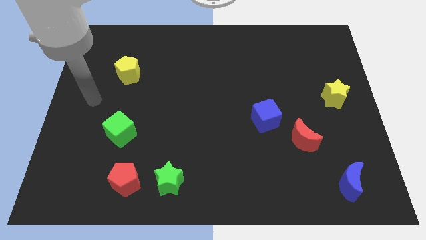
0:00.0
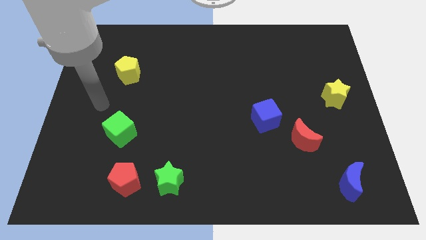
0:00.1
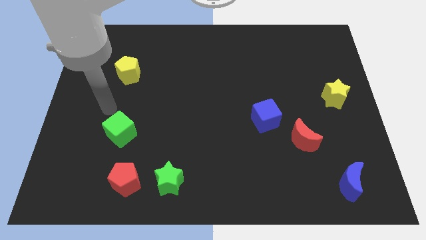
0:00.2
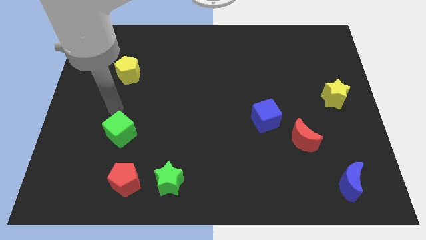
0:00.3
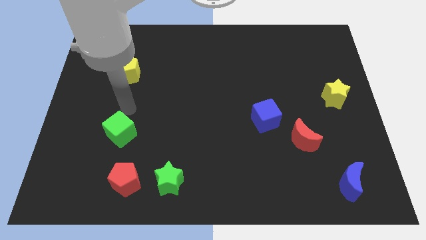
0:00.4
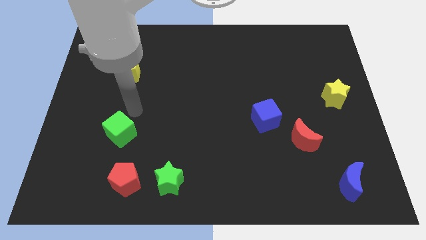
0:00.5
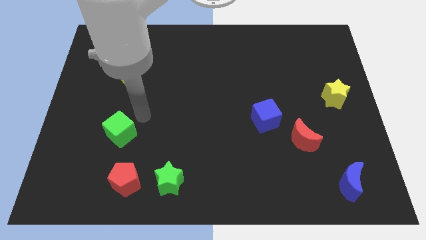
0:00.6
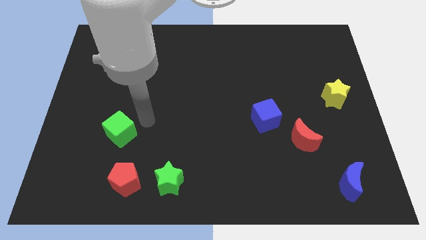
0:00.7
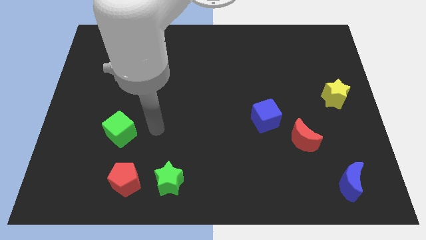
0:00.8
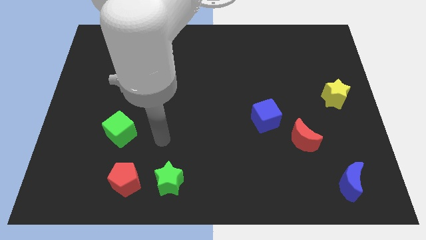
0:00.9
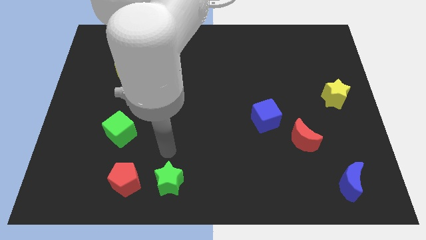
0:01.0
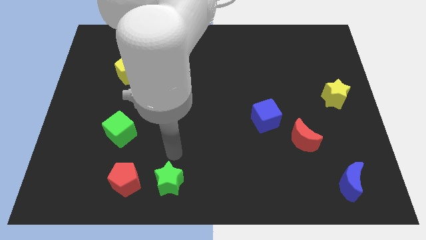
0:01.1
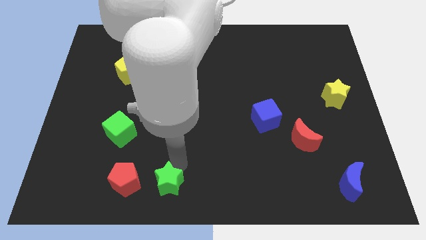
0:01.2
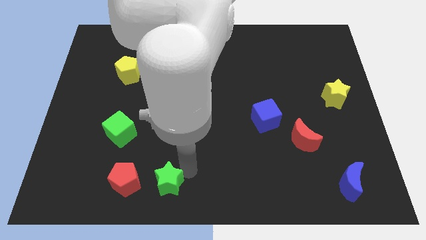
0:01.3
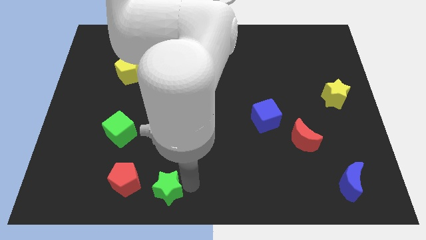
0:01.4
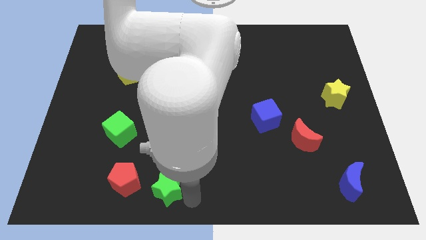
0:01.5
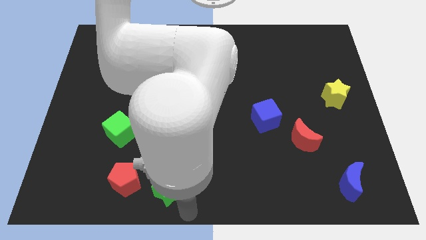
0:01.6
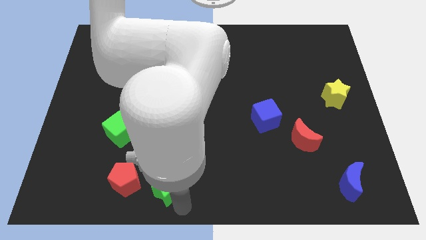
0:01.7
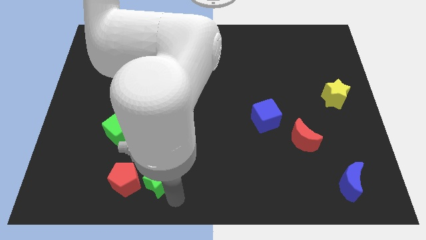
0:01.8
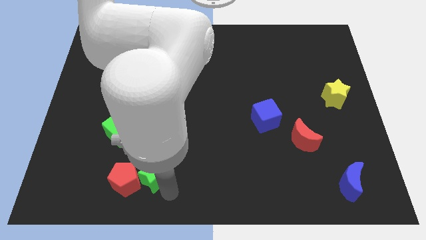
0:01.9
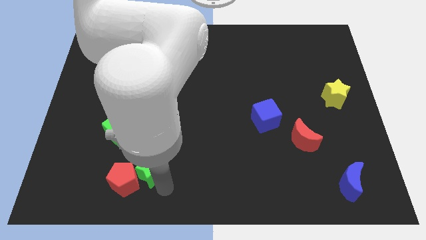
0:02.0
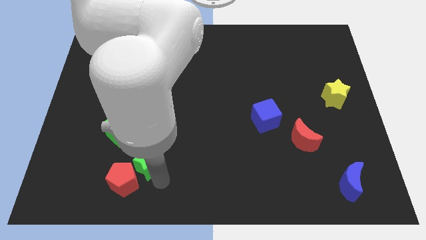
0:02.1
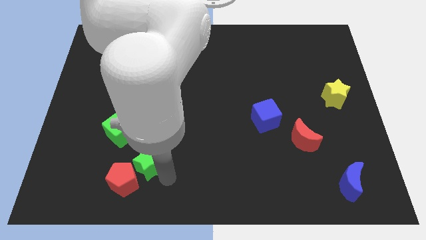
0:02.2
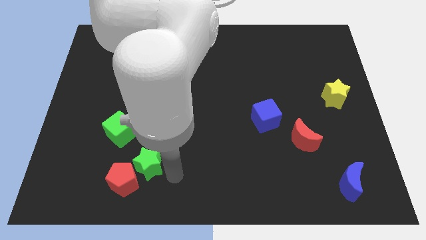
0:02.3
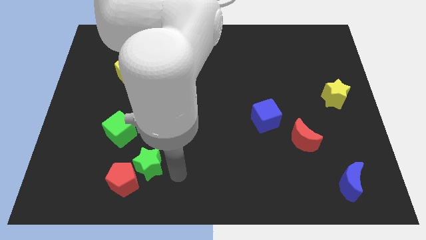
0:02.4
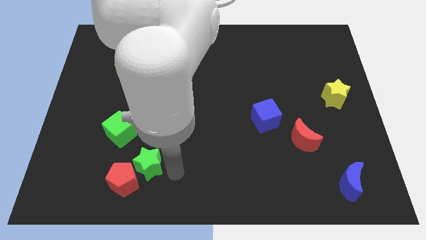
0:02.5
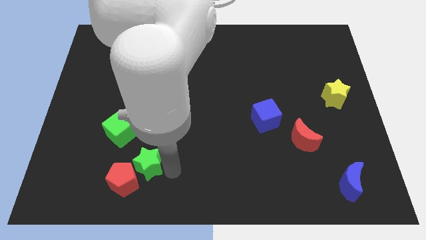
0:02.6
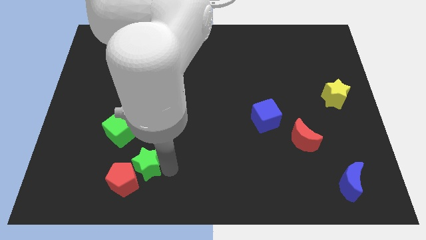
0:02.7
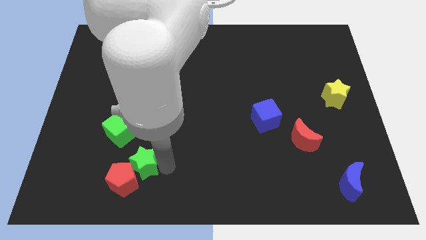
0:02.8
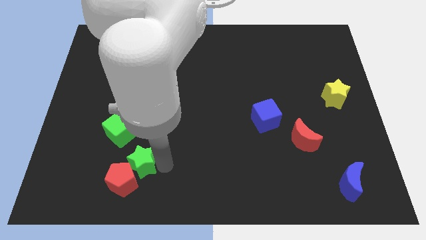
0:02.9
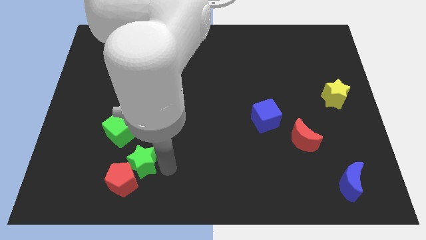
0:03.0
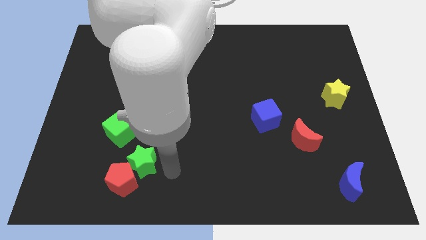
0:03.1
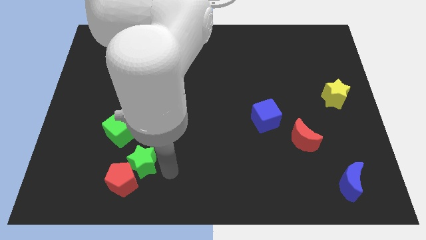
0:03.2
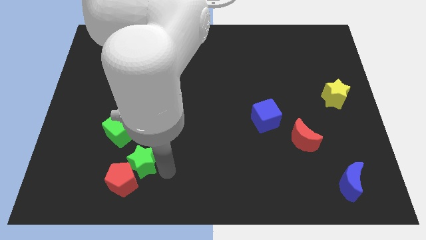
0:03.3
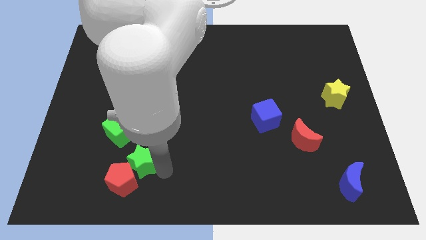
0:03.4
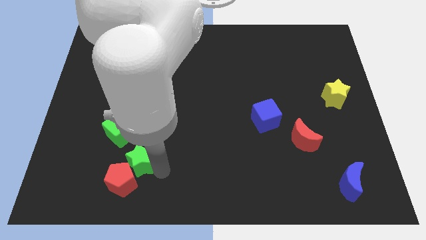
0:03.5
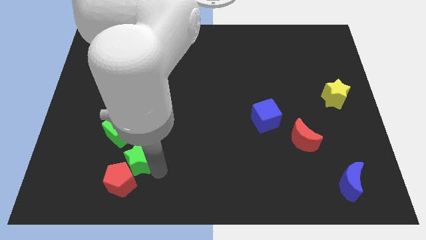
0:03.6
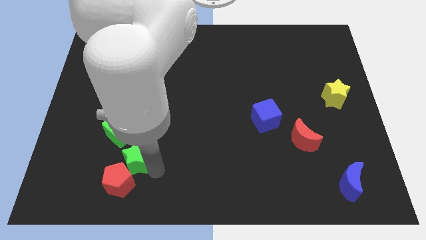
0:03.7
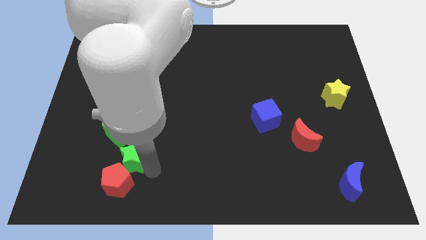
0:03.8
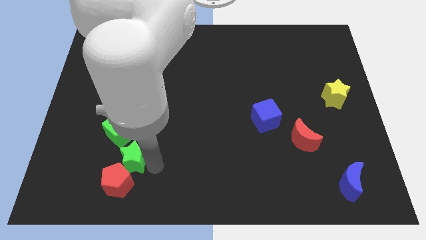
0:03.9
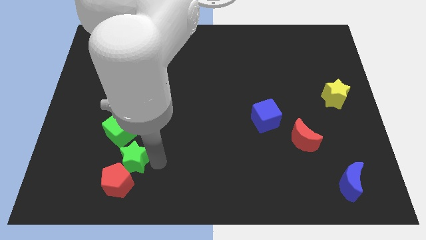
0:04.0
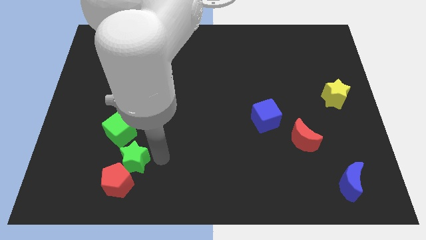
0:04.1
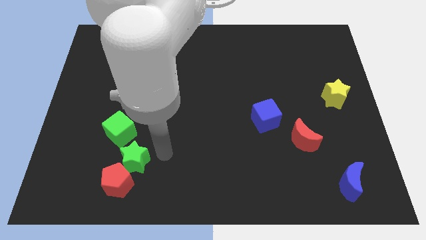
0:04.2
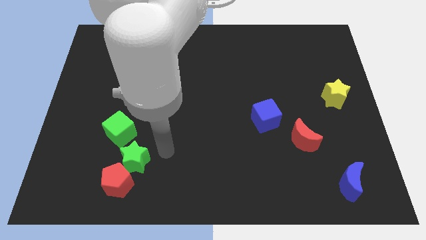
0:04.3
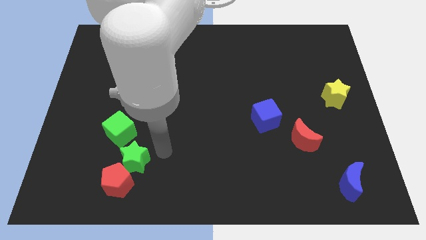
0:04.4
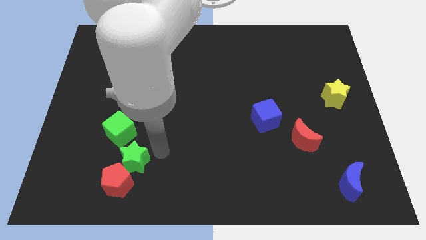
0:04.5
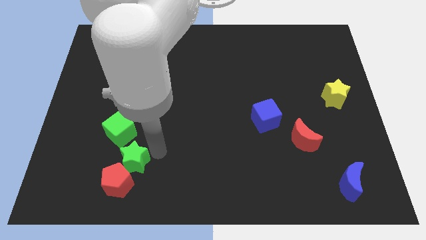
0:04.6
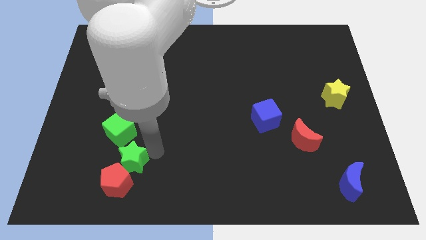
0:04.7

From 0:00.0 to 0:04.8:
push the green star left somewhat

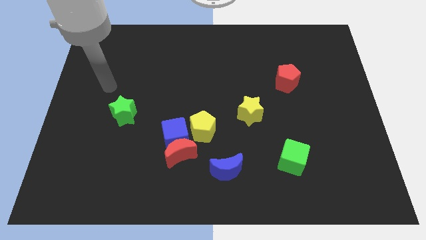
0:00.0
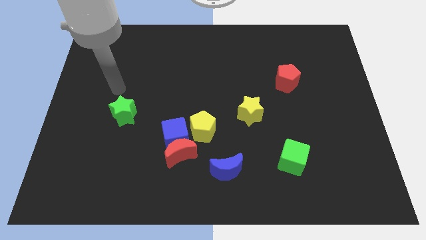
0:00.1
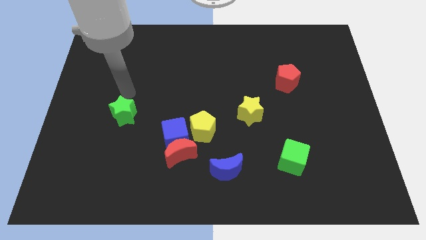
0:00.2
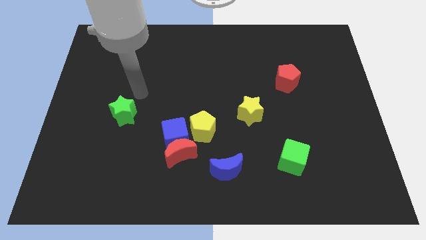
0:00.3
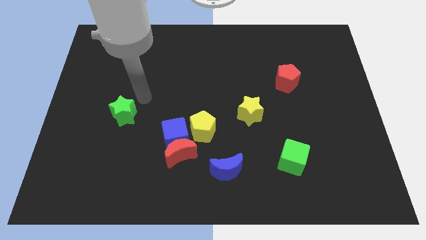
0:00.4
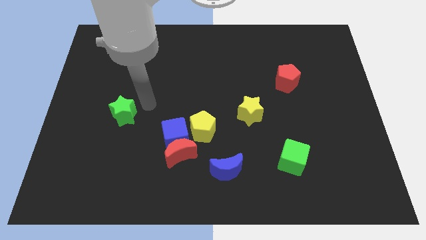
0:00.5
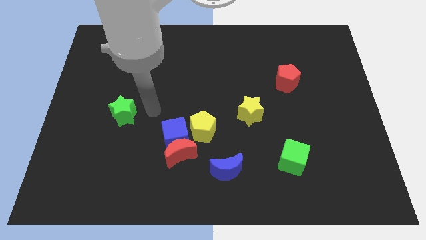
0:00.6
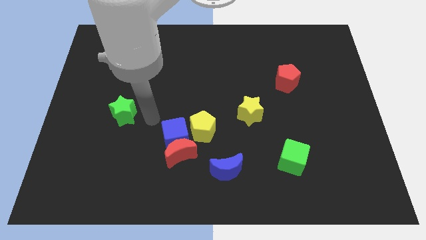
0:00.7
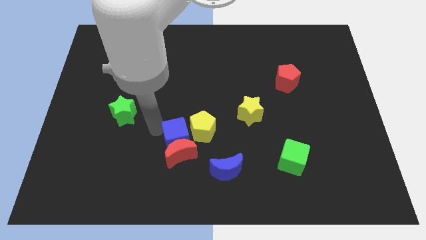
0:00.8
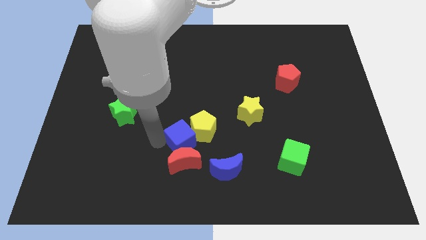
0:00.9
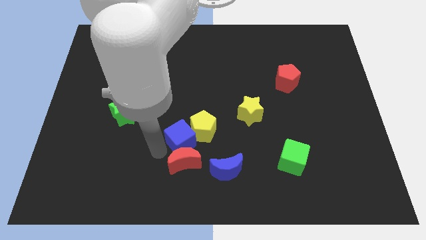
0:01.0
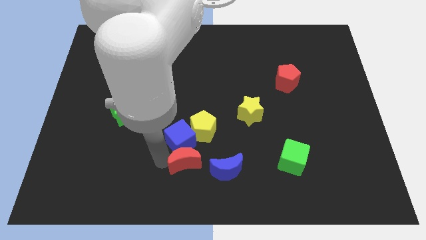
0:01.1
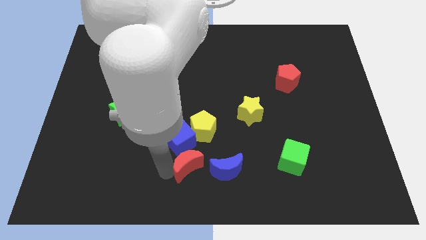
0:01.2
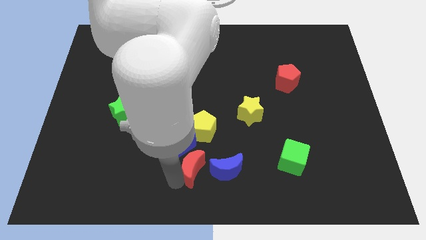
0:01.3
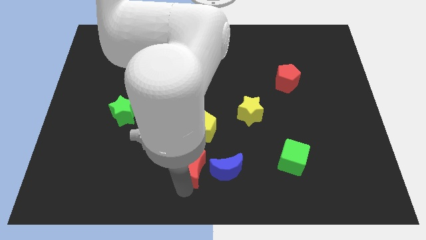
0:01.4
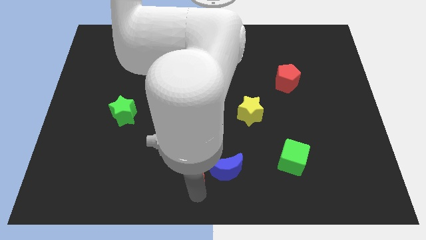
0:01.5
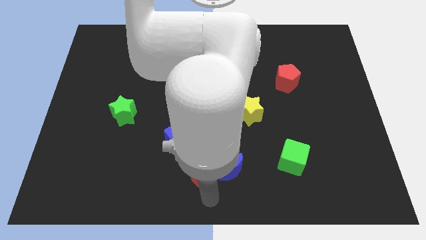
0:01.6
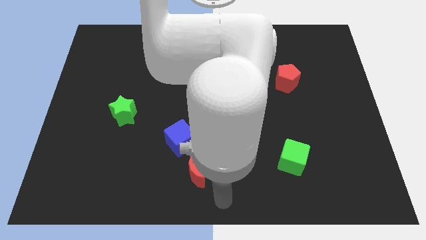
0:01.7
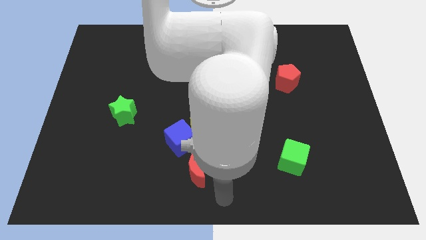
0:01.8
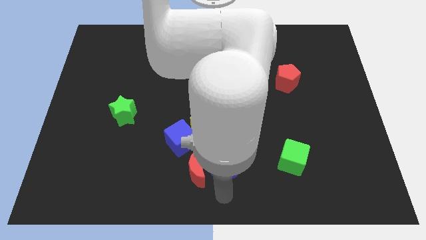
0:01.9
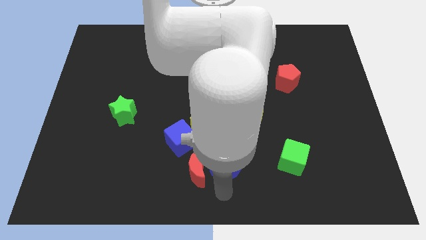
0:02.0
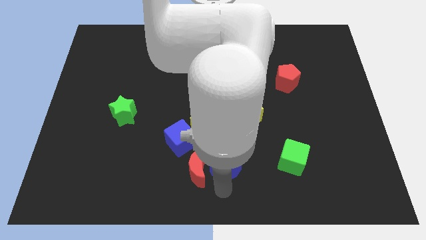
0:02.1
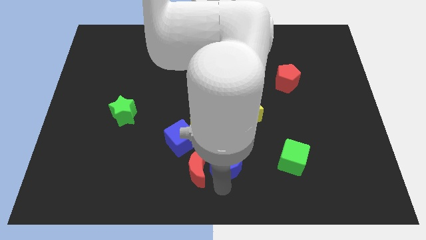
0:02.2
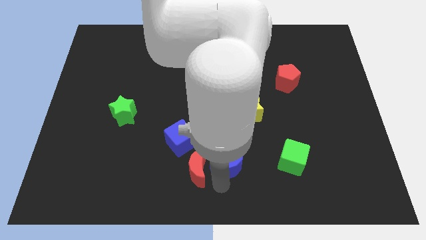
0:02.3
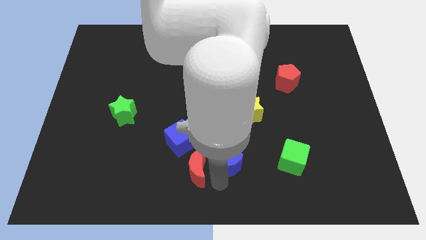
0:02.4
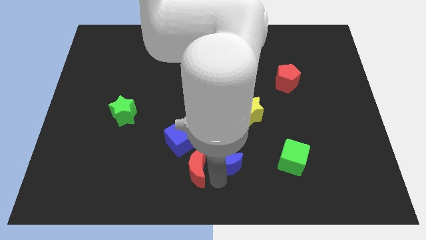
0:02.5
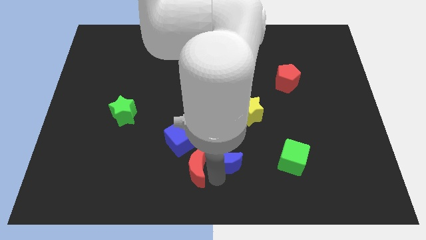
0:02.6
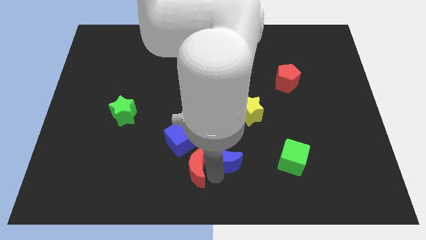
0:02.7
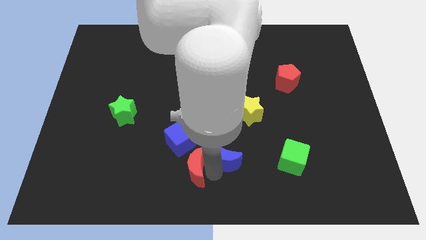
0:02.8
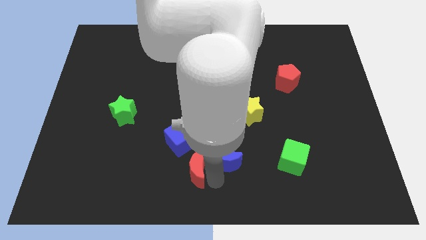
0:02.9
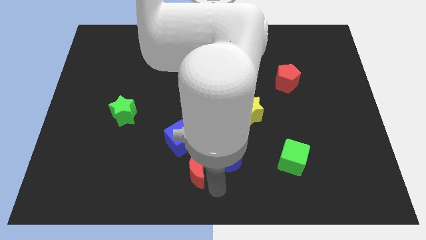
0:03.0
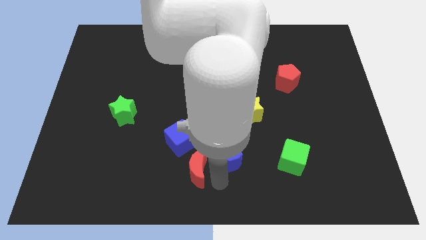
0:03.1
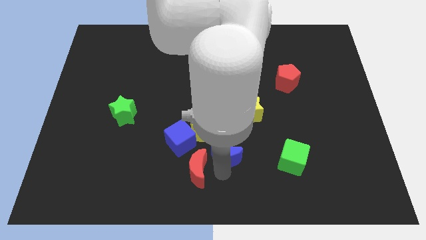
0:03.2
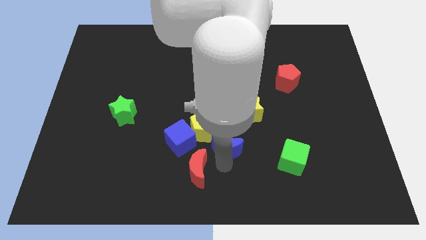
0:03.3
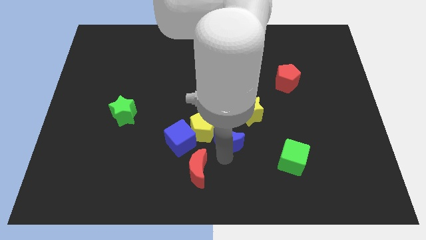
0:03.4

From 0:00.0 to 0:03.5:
slightly move the blue moon upwards
